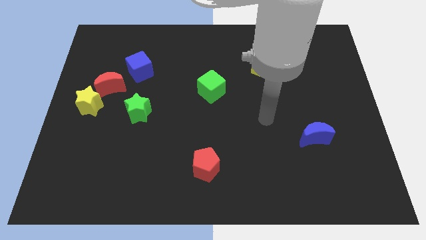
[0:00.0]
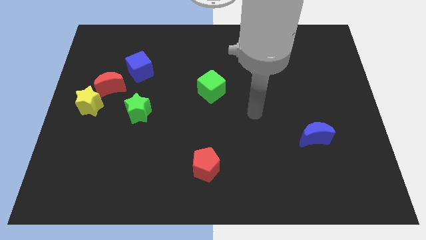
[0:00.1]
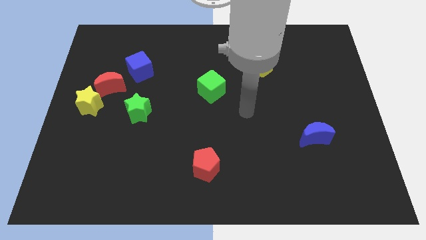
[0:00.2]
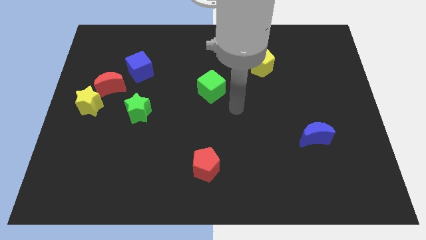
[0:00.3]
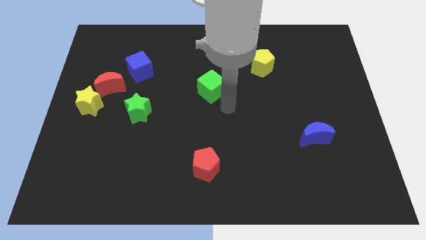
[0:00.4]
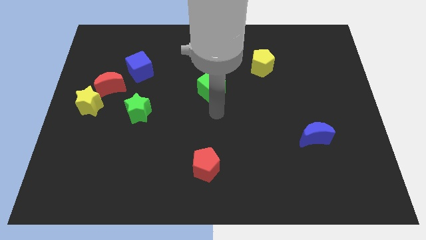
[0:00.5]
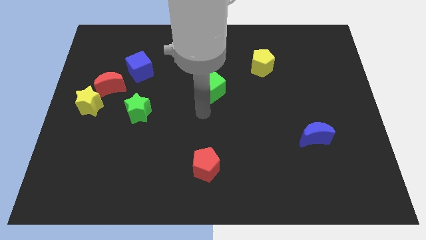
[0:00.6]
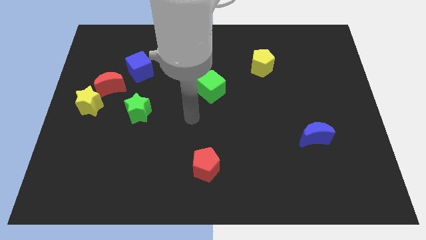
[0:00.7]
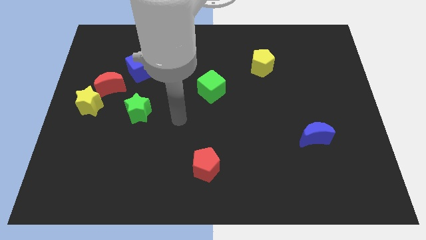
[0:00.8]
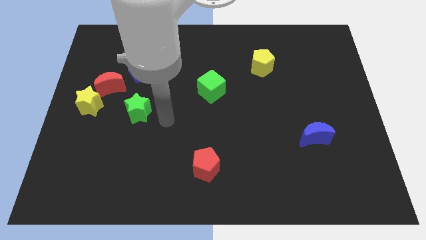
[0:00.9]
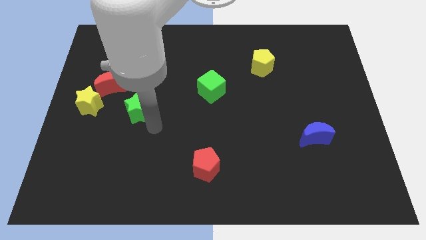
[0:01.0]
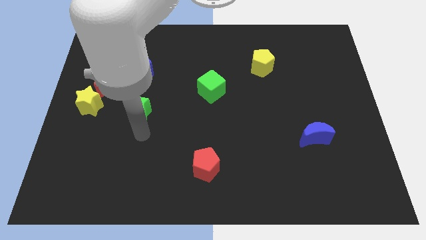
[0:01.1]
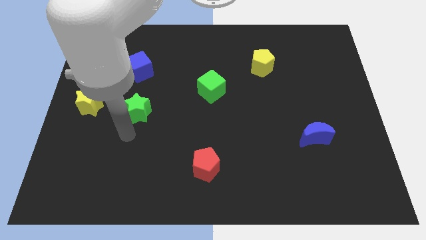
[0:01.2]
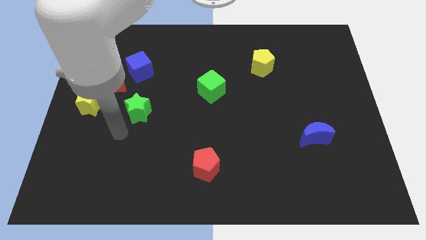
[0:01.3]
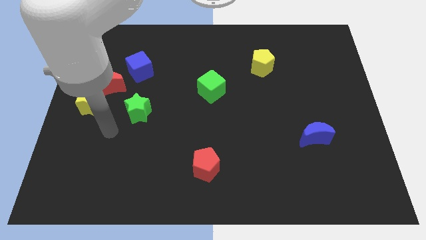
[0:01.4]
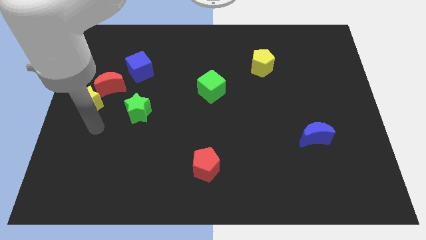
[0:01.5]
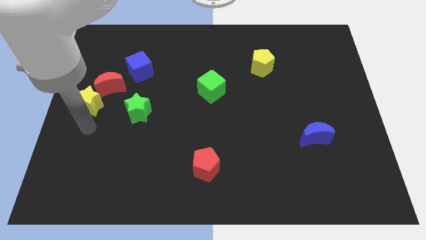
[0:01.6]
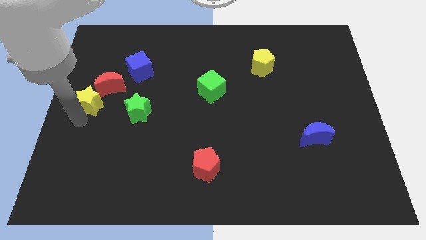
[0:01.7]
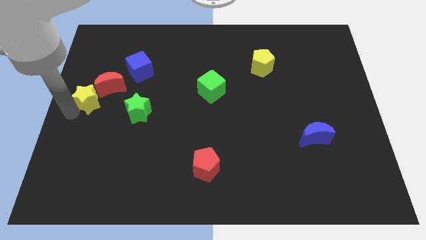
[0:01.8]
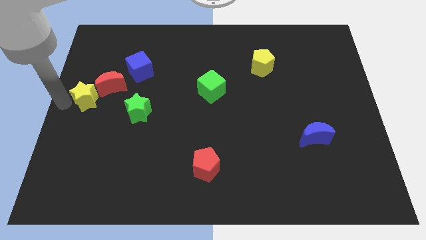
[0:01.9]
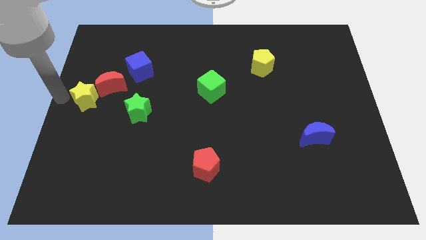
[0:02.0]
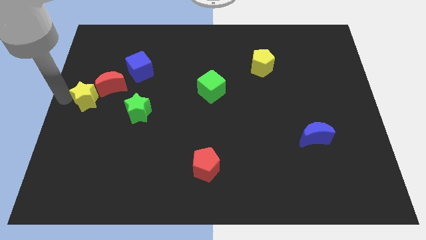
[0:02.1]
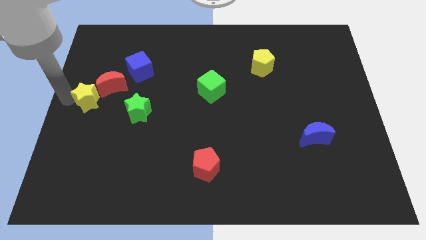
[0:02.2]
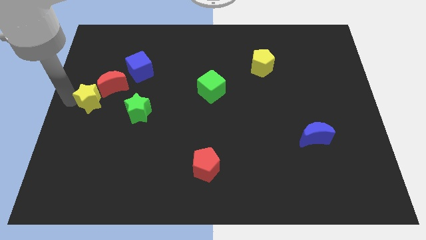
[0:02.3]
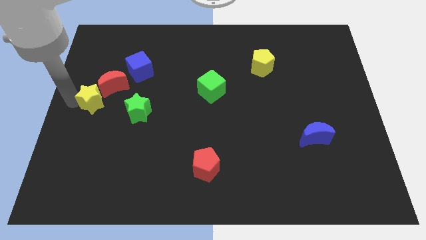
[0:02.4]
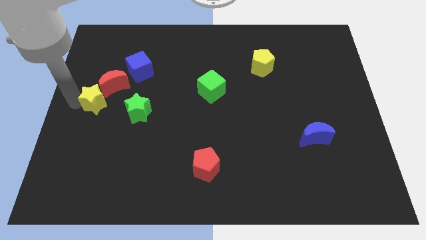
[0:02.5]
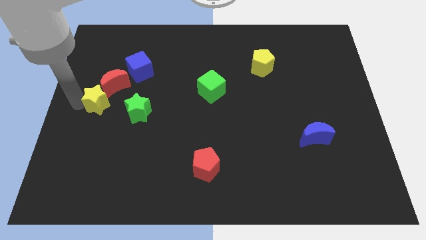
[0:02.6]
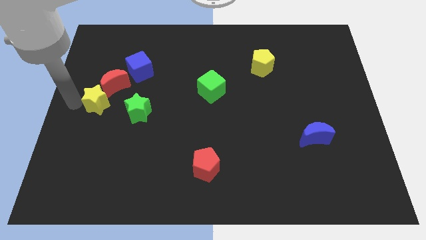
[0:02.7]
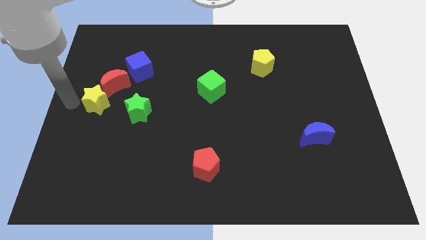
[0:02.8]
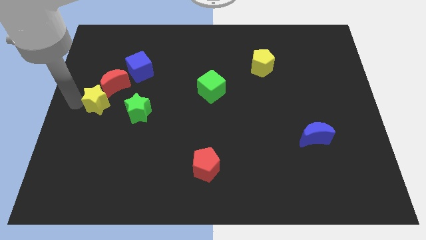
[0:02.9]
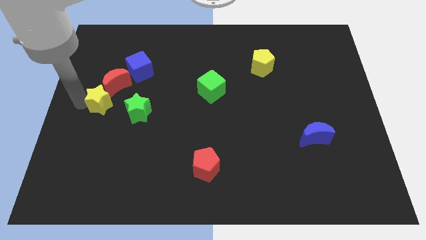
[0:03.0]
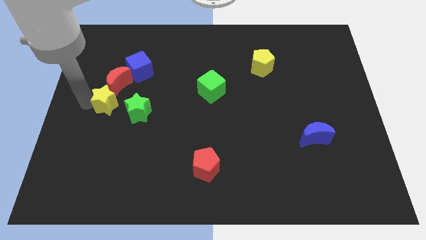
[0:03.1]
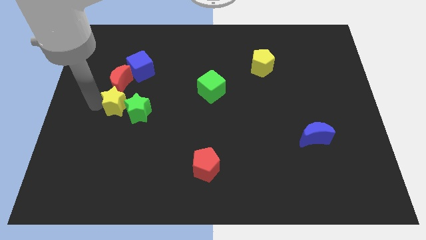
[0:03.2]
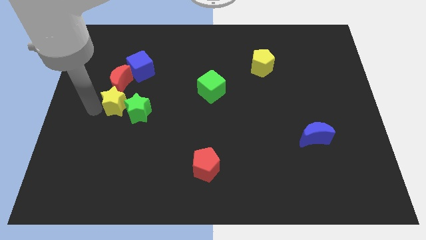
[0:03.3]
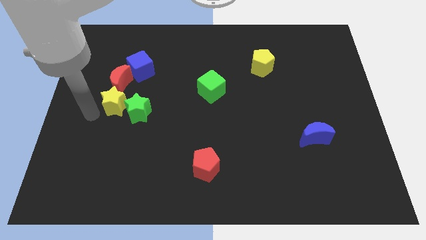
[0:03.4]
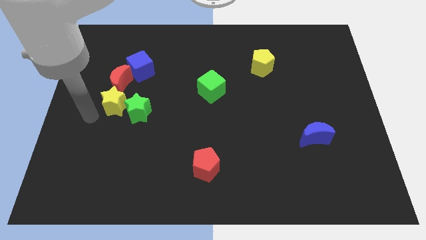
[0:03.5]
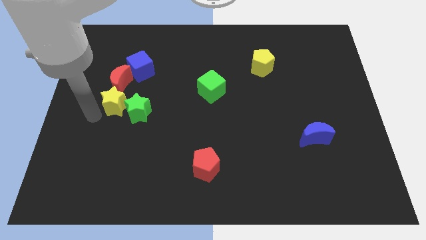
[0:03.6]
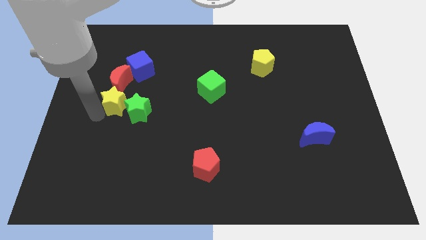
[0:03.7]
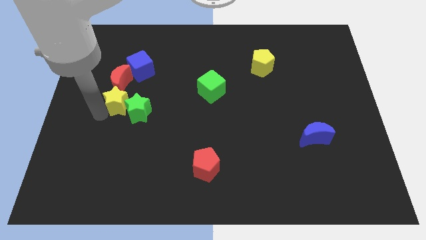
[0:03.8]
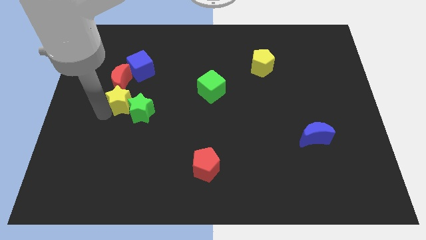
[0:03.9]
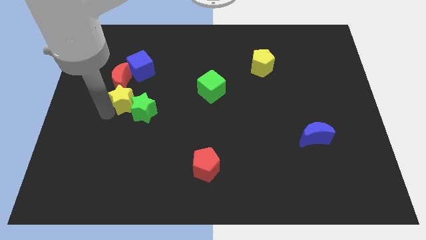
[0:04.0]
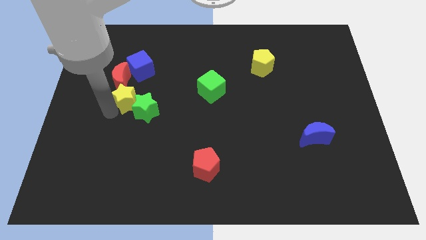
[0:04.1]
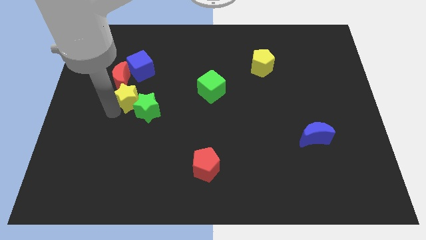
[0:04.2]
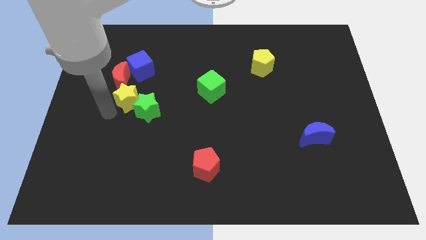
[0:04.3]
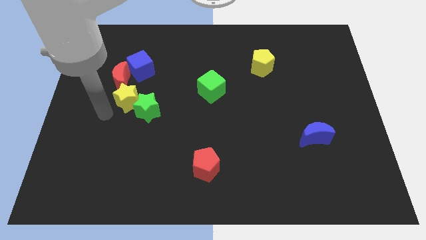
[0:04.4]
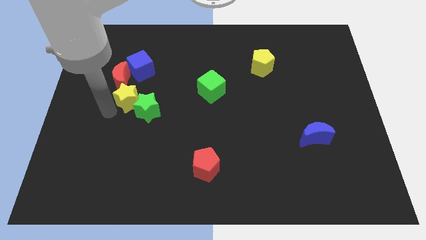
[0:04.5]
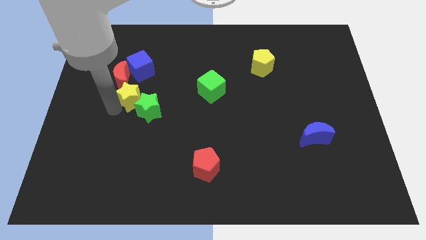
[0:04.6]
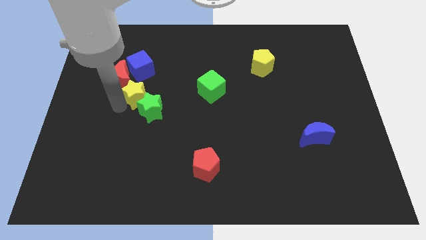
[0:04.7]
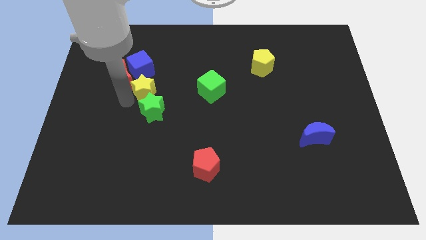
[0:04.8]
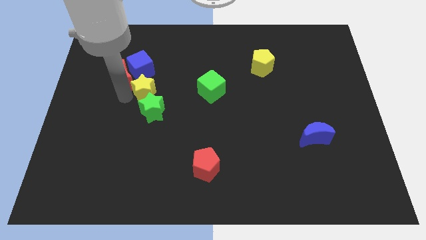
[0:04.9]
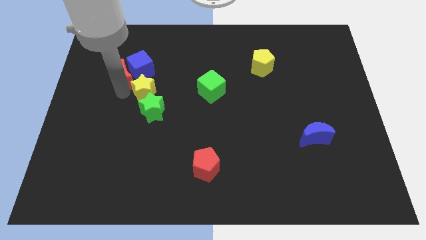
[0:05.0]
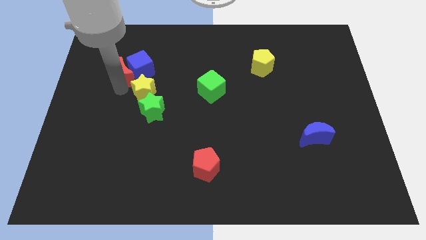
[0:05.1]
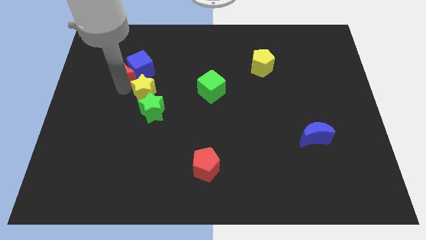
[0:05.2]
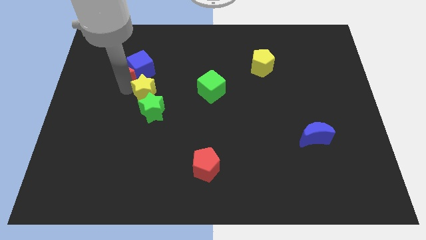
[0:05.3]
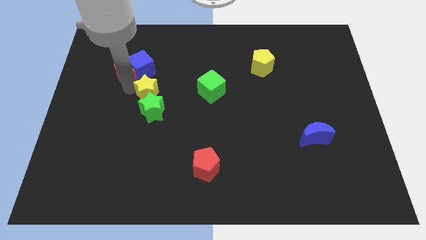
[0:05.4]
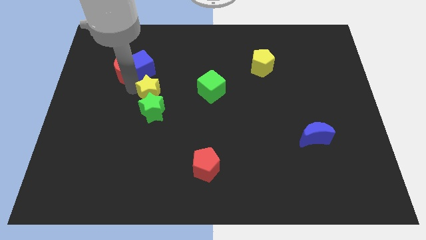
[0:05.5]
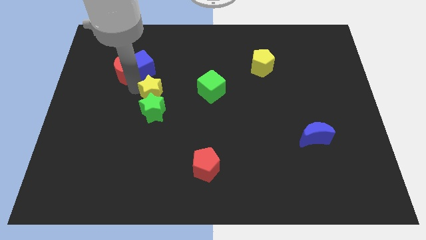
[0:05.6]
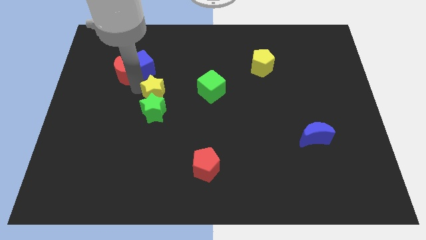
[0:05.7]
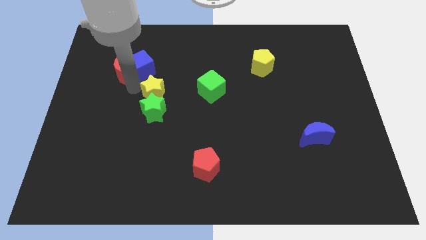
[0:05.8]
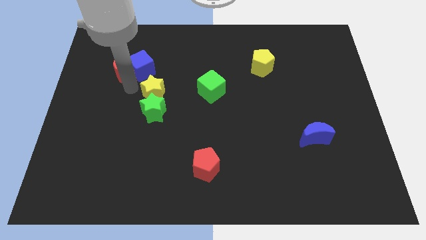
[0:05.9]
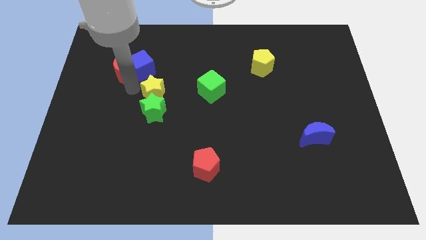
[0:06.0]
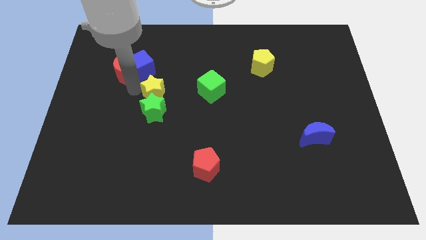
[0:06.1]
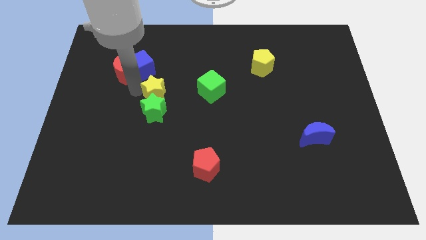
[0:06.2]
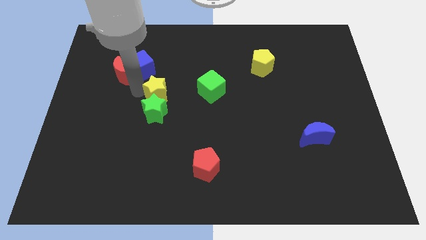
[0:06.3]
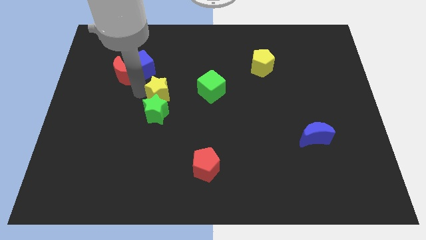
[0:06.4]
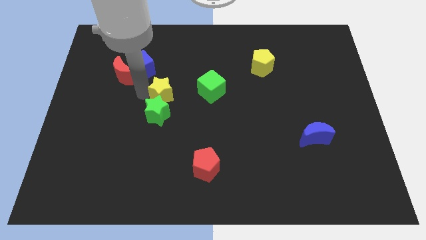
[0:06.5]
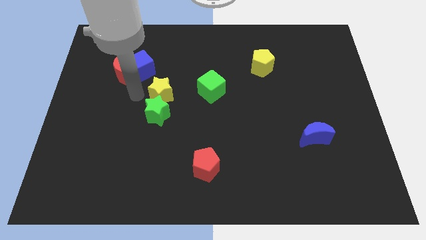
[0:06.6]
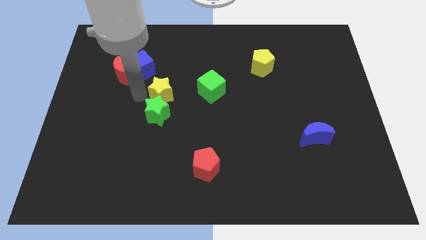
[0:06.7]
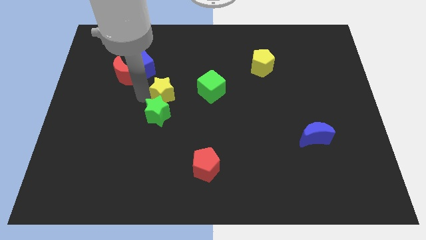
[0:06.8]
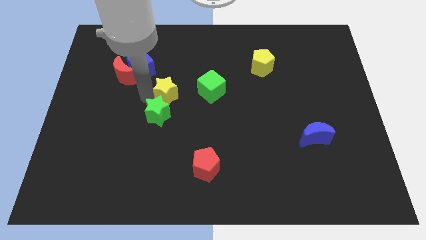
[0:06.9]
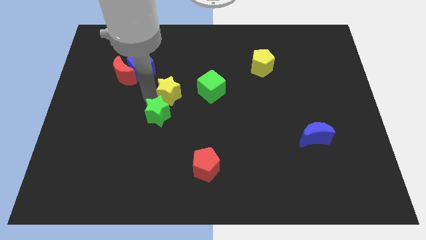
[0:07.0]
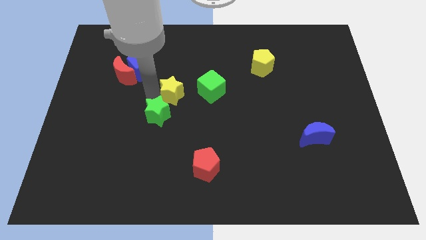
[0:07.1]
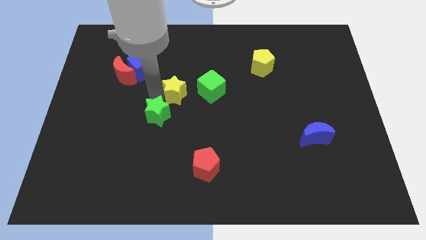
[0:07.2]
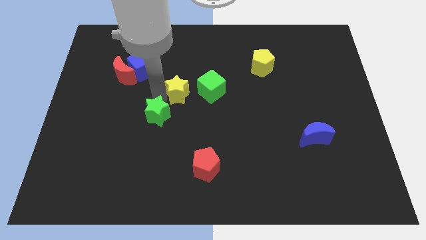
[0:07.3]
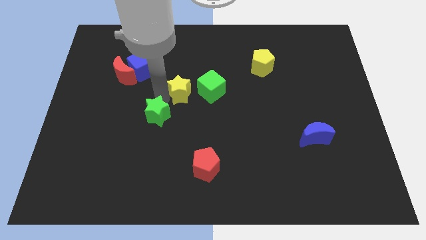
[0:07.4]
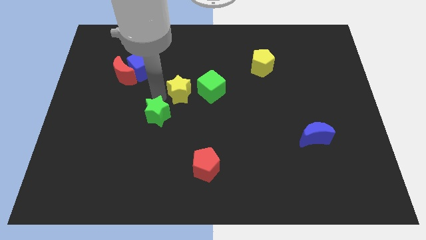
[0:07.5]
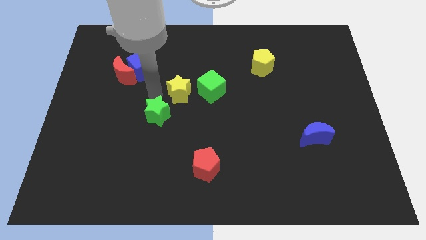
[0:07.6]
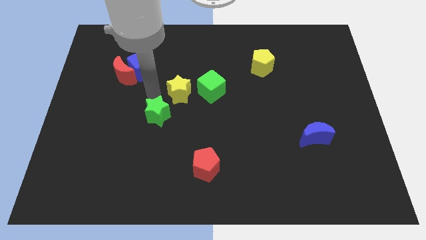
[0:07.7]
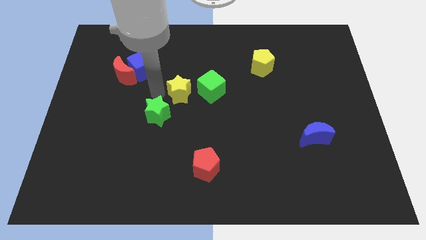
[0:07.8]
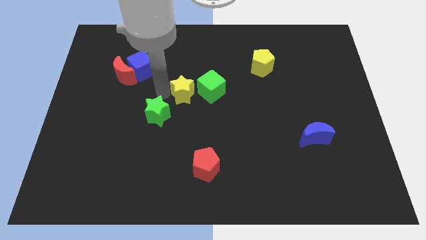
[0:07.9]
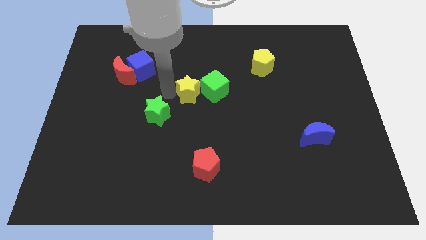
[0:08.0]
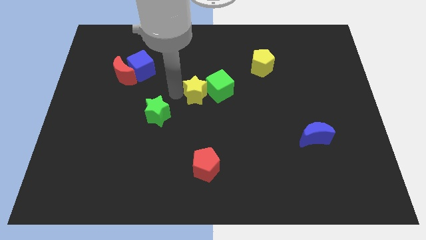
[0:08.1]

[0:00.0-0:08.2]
slide the yellow star towards the green cube
